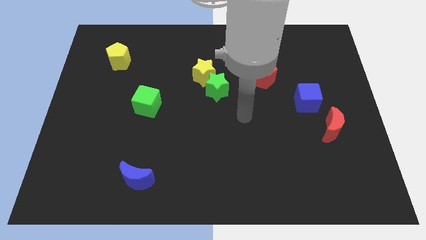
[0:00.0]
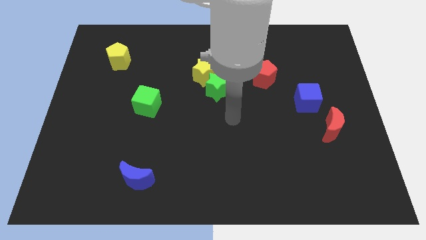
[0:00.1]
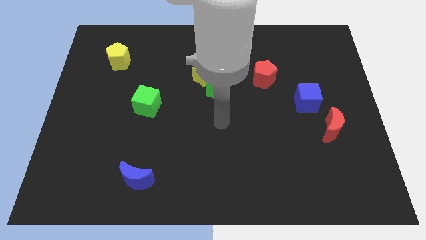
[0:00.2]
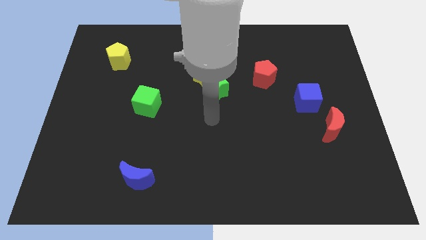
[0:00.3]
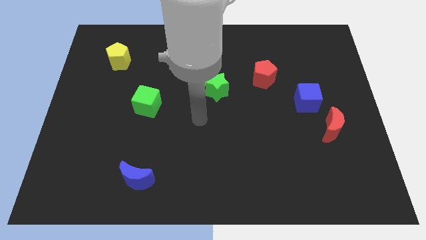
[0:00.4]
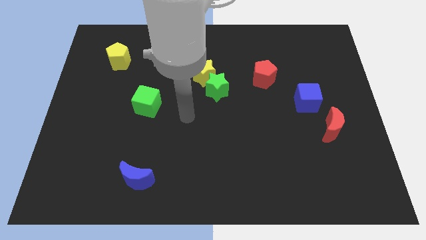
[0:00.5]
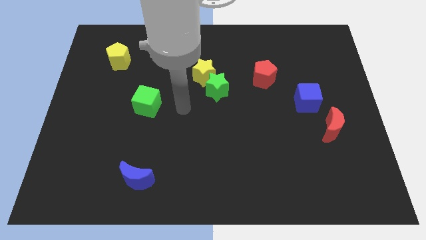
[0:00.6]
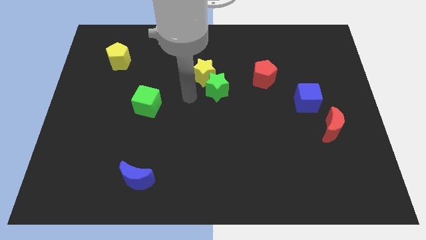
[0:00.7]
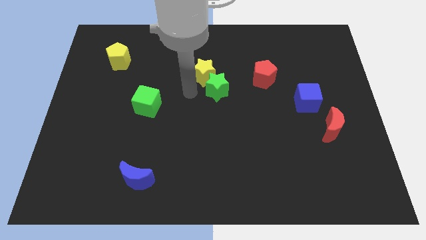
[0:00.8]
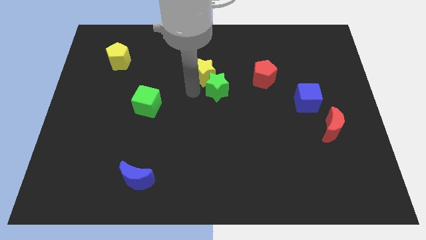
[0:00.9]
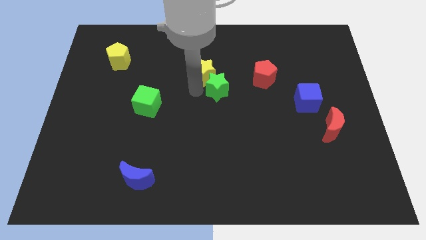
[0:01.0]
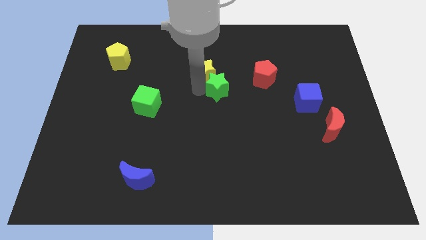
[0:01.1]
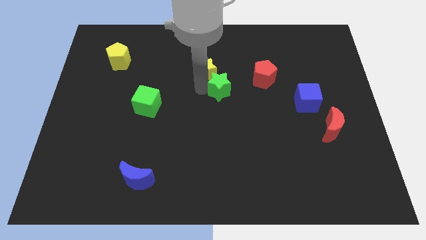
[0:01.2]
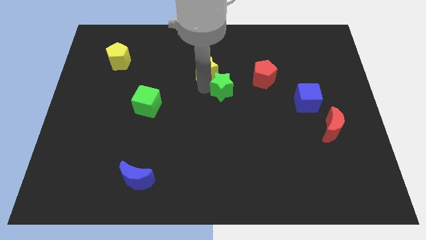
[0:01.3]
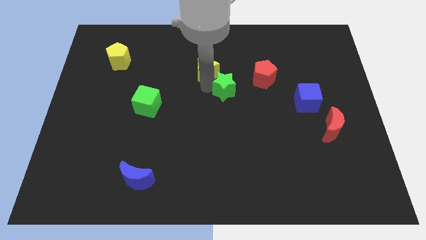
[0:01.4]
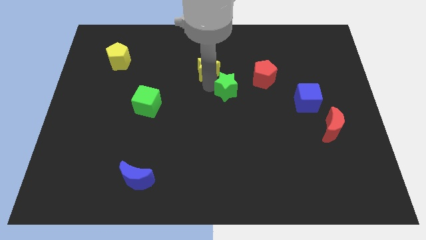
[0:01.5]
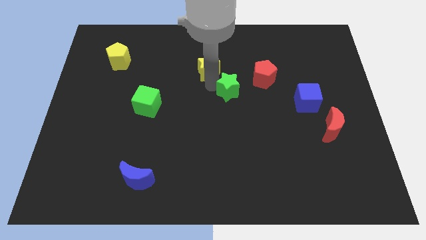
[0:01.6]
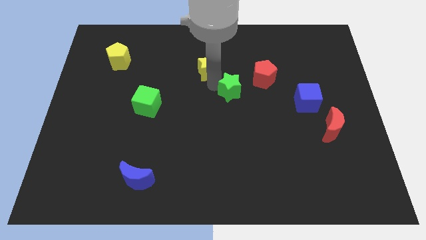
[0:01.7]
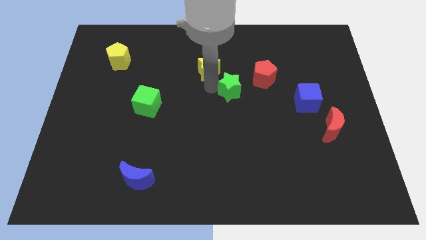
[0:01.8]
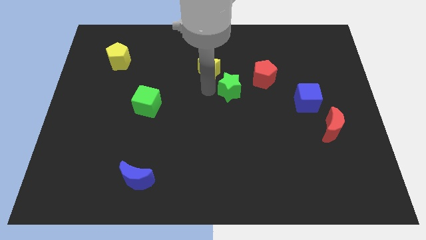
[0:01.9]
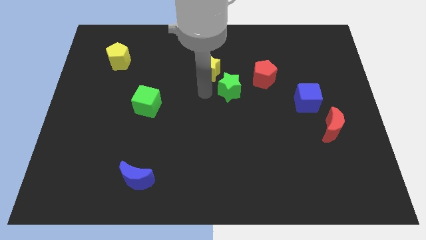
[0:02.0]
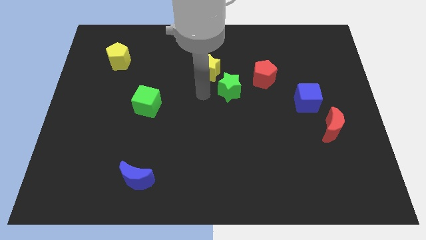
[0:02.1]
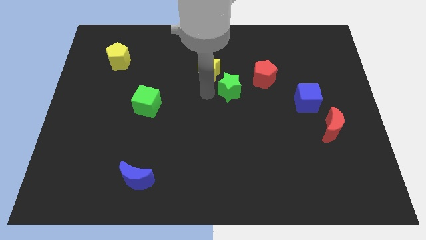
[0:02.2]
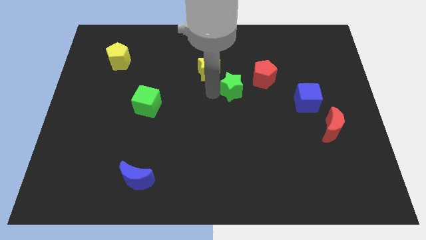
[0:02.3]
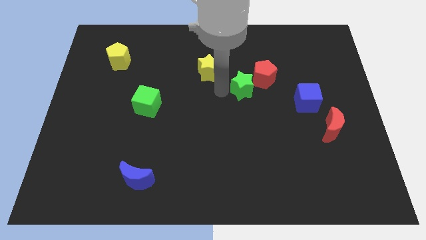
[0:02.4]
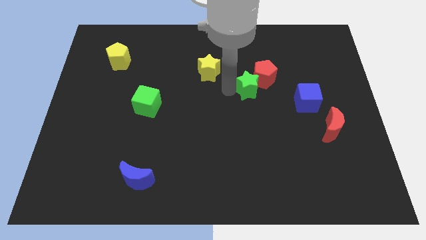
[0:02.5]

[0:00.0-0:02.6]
slightly push the green star right

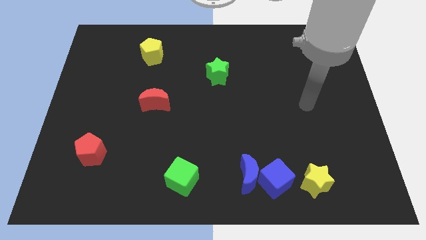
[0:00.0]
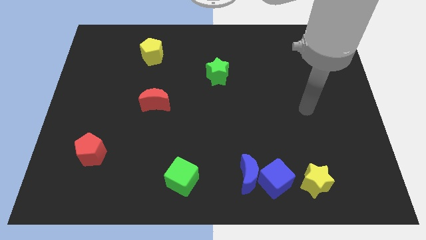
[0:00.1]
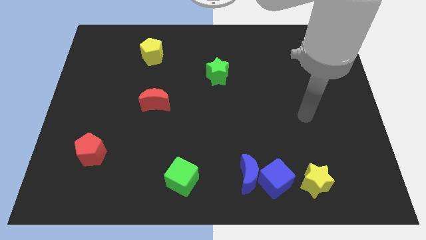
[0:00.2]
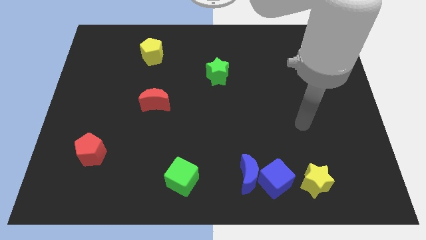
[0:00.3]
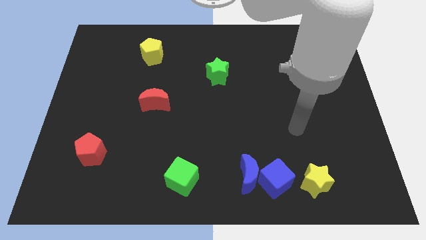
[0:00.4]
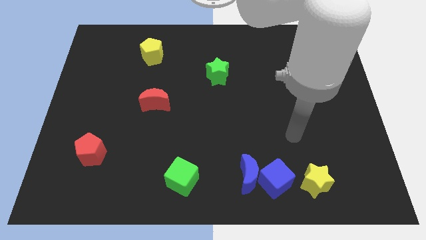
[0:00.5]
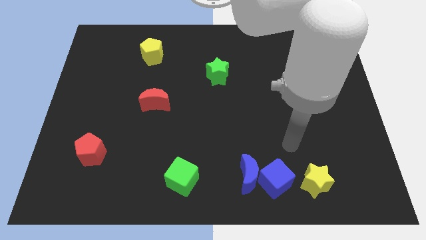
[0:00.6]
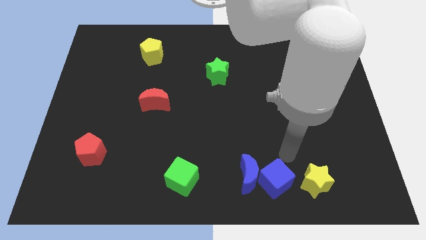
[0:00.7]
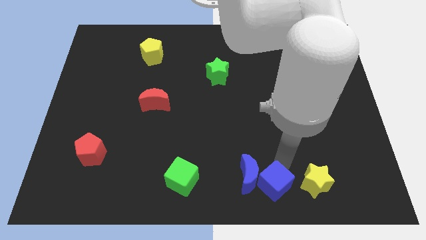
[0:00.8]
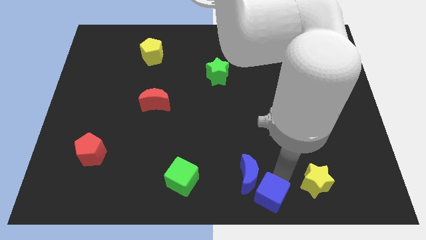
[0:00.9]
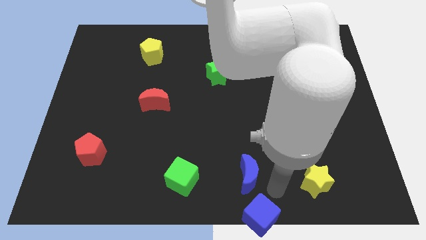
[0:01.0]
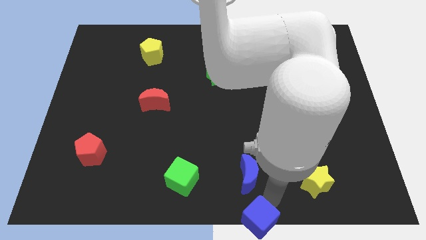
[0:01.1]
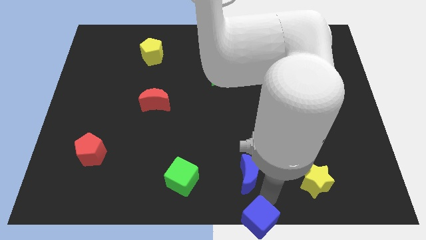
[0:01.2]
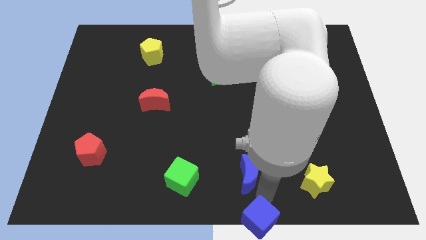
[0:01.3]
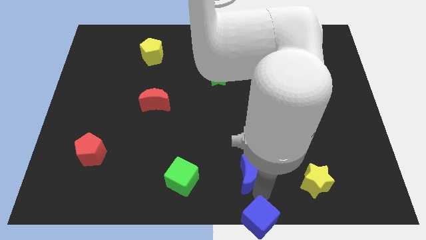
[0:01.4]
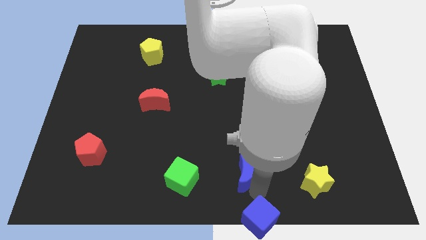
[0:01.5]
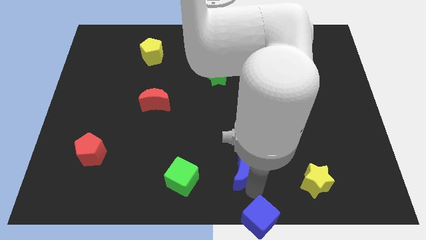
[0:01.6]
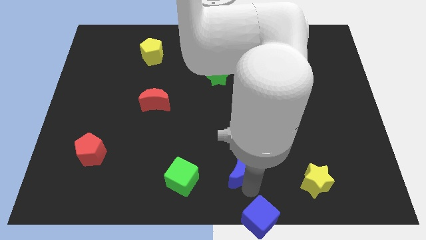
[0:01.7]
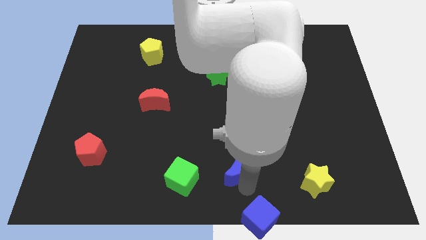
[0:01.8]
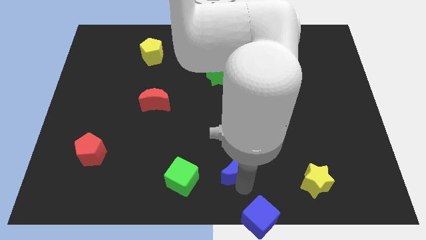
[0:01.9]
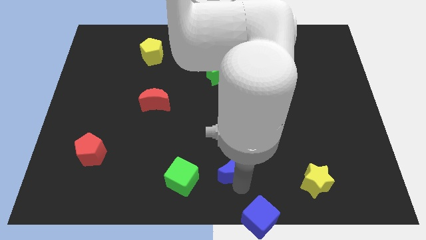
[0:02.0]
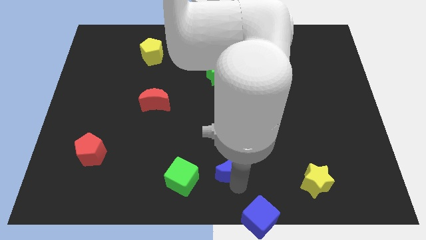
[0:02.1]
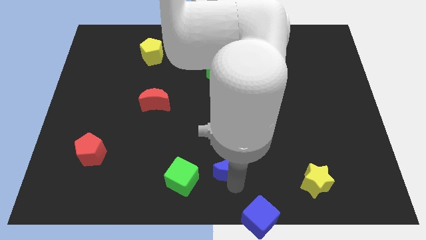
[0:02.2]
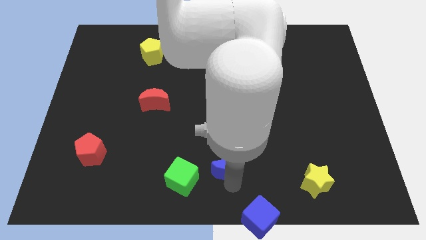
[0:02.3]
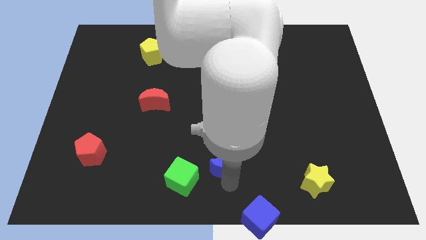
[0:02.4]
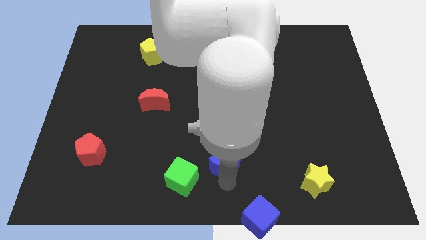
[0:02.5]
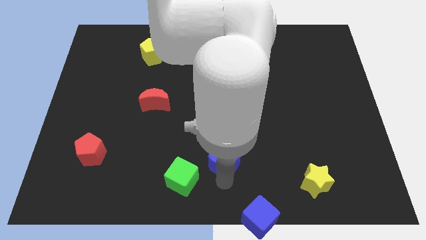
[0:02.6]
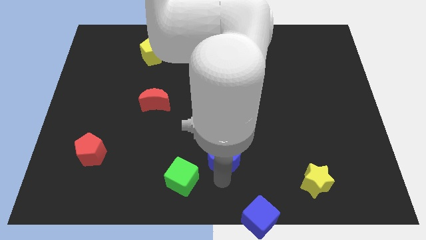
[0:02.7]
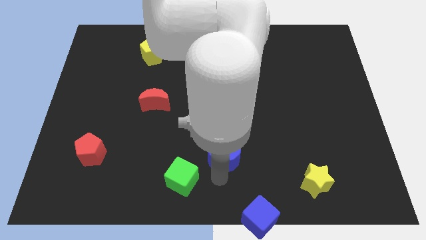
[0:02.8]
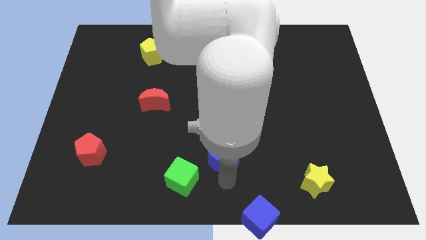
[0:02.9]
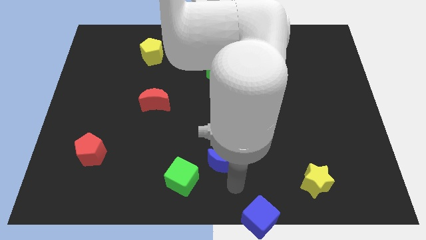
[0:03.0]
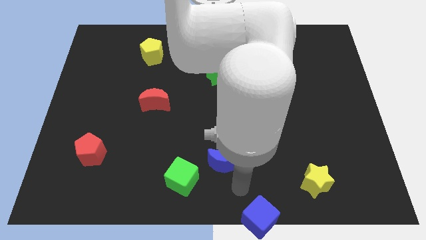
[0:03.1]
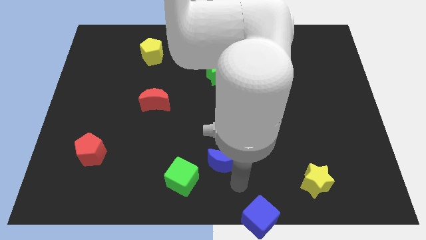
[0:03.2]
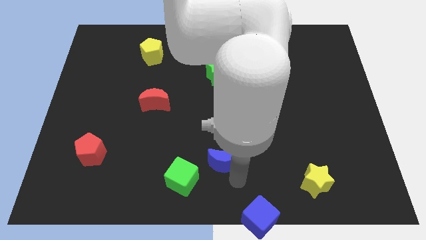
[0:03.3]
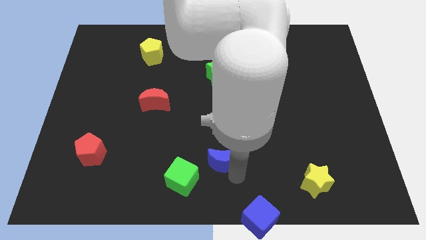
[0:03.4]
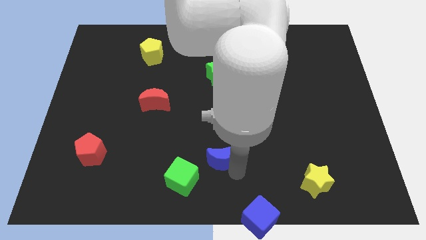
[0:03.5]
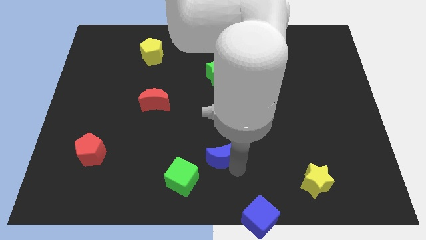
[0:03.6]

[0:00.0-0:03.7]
slightly push the blue moon up and to the left diagonally

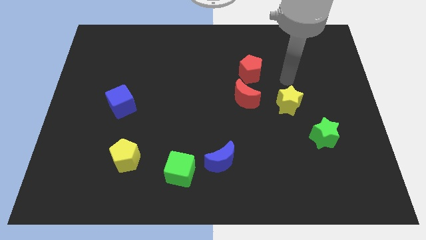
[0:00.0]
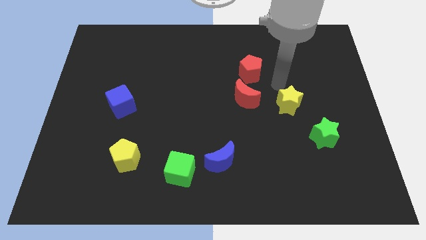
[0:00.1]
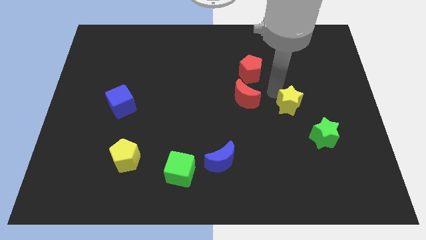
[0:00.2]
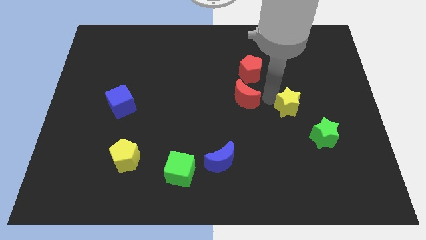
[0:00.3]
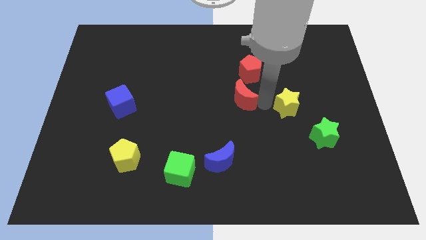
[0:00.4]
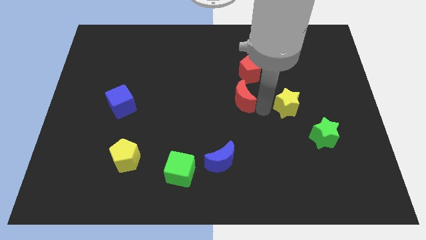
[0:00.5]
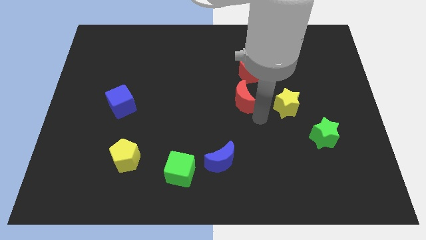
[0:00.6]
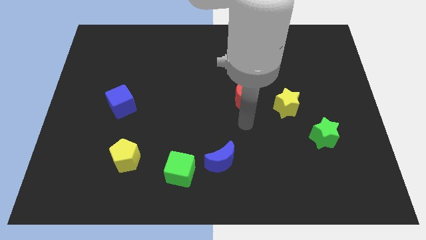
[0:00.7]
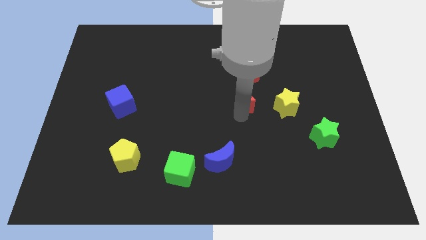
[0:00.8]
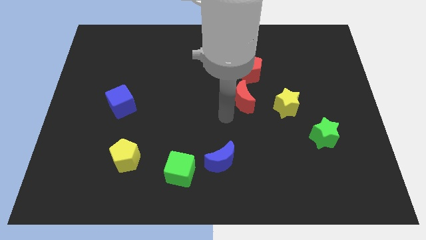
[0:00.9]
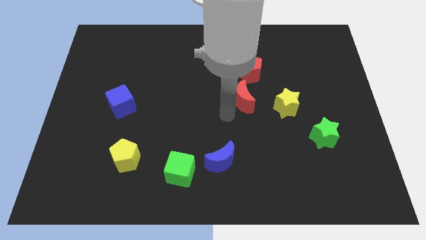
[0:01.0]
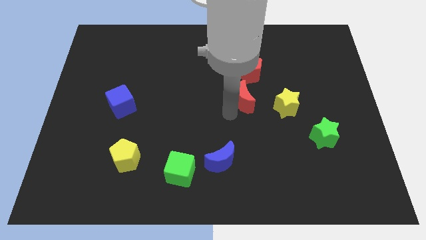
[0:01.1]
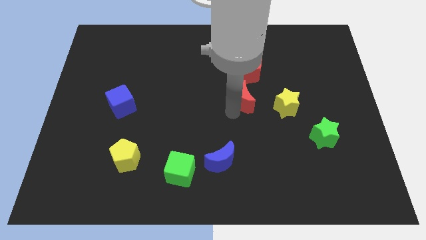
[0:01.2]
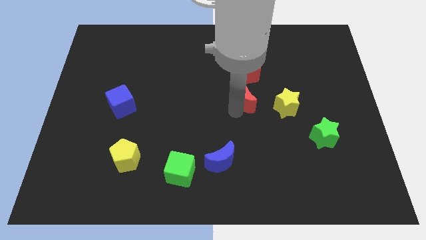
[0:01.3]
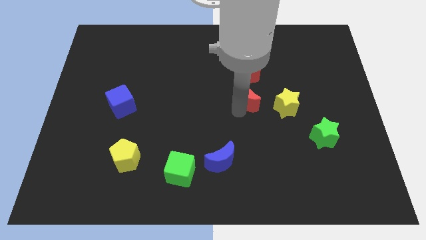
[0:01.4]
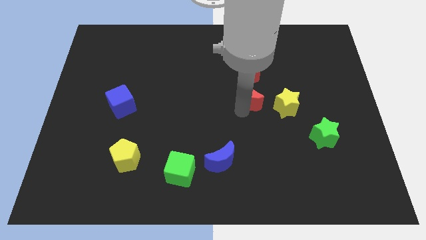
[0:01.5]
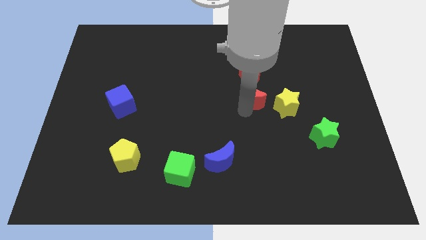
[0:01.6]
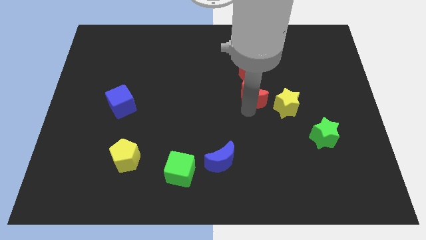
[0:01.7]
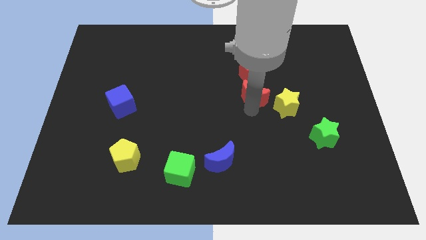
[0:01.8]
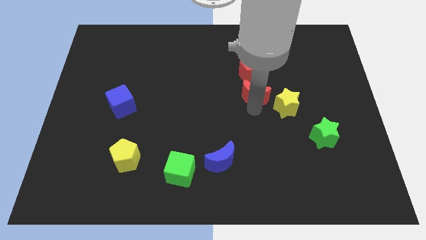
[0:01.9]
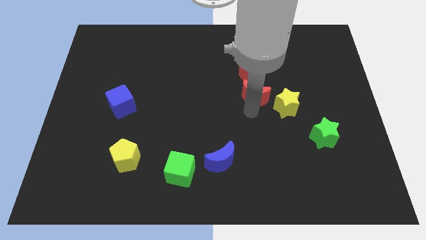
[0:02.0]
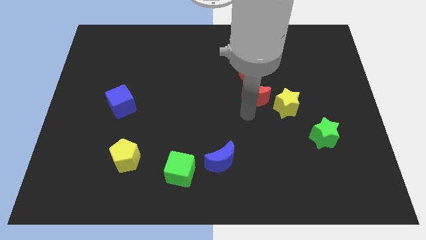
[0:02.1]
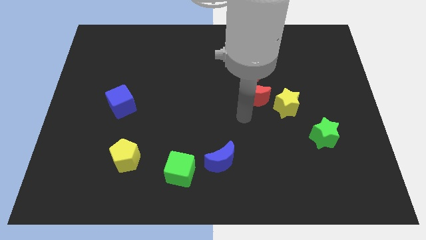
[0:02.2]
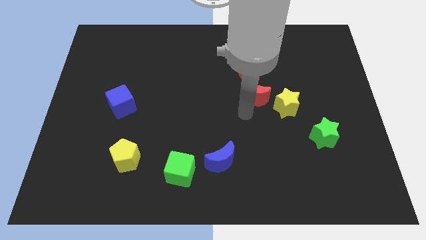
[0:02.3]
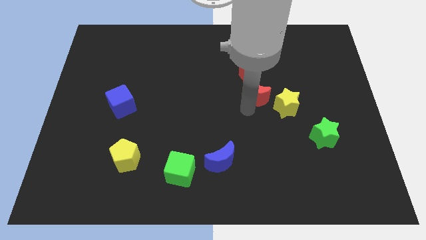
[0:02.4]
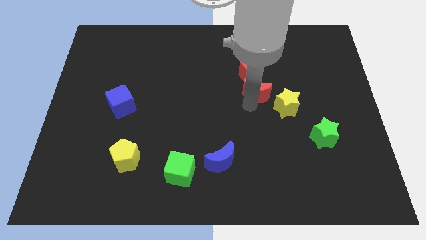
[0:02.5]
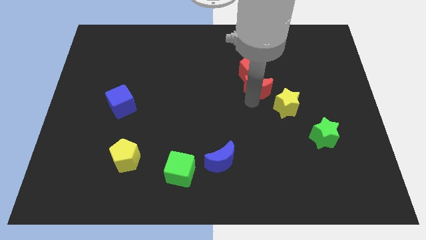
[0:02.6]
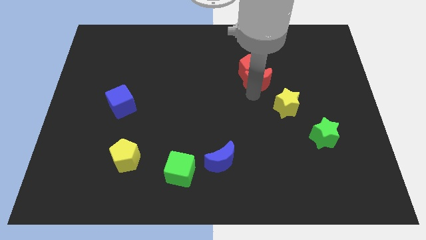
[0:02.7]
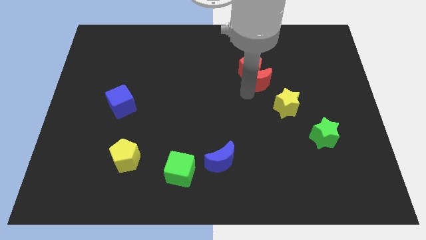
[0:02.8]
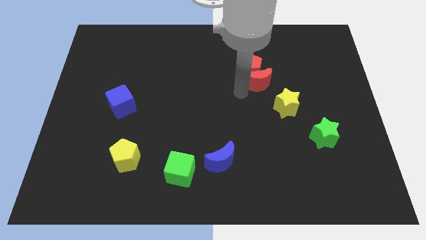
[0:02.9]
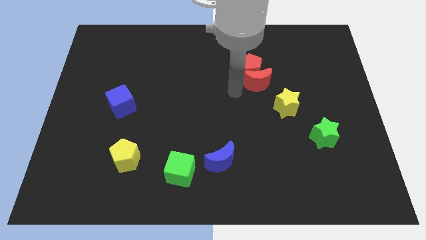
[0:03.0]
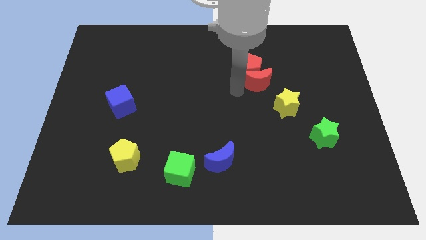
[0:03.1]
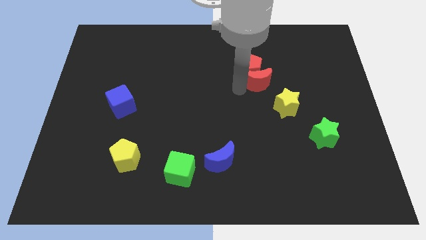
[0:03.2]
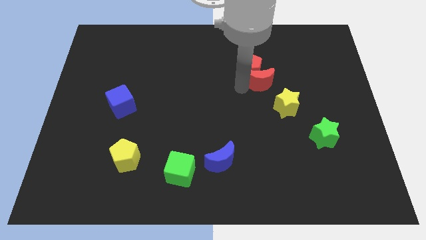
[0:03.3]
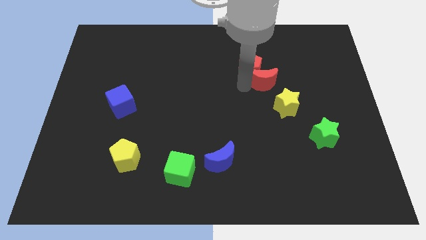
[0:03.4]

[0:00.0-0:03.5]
slightly slide the red moon diagonally upwards and right
